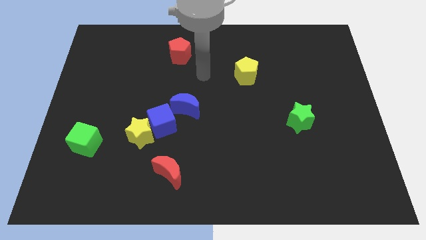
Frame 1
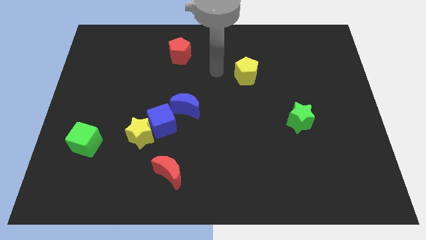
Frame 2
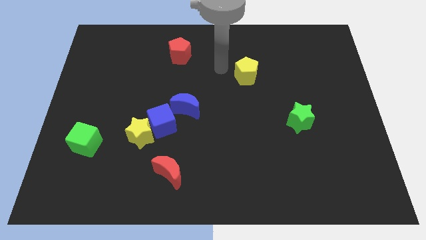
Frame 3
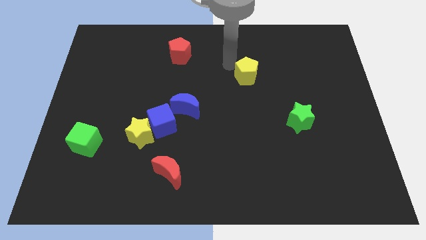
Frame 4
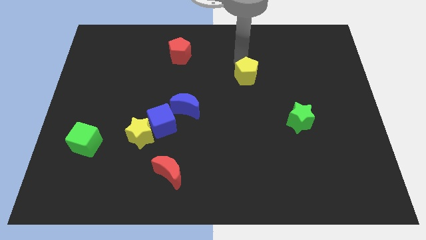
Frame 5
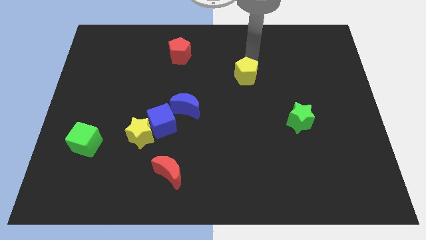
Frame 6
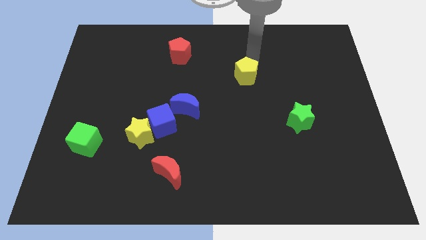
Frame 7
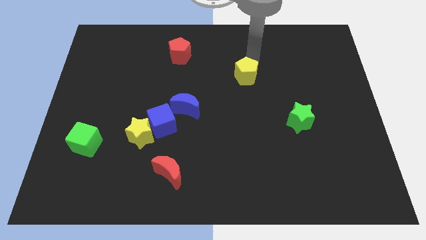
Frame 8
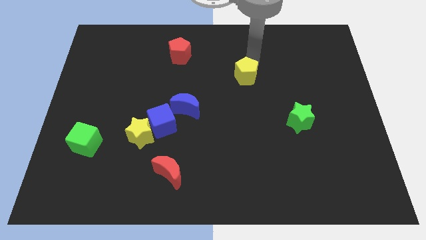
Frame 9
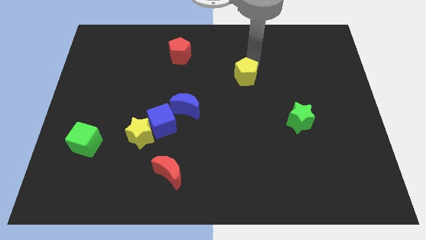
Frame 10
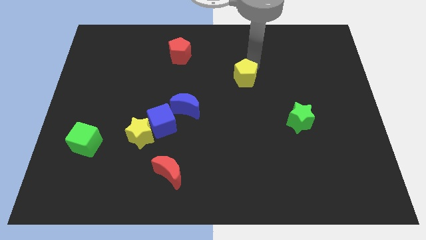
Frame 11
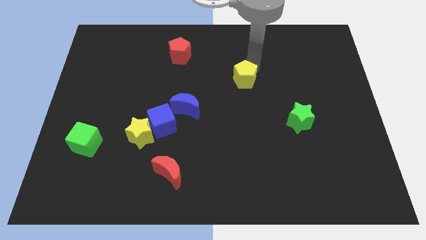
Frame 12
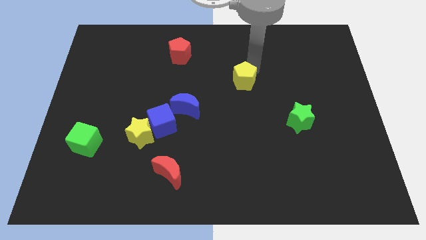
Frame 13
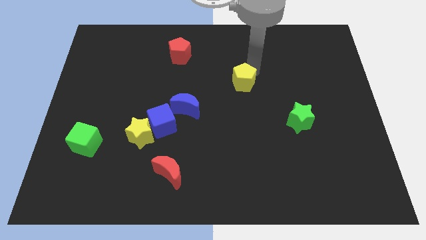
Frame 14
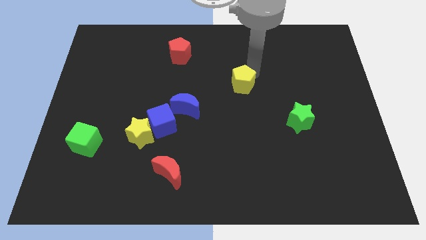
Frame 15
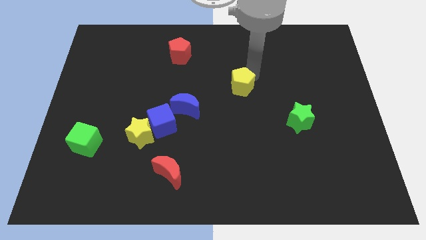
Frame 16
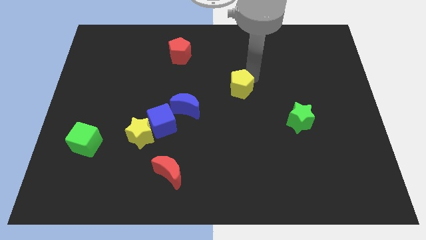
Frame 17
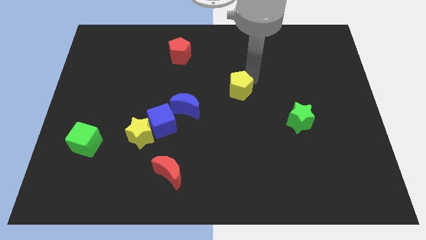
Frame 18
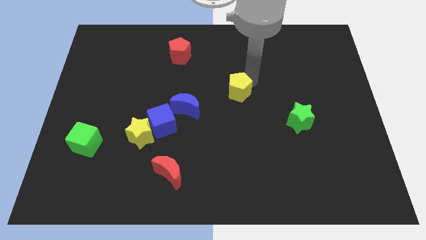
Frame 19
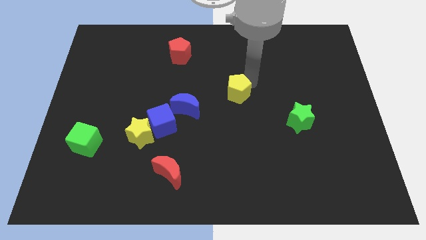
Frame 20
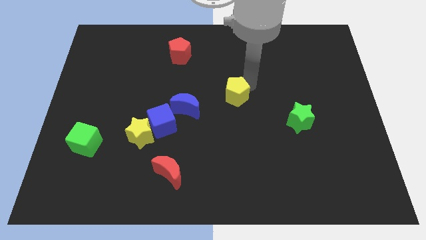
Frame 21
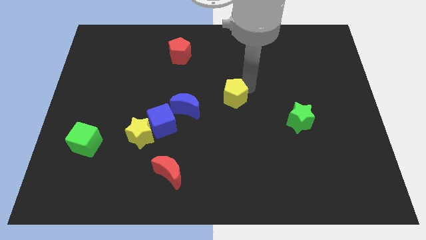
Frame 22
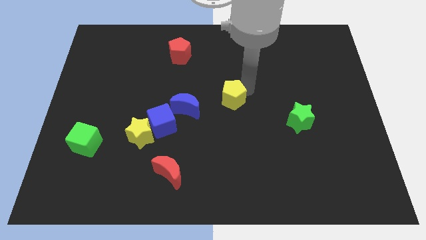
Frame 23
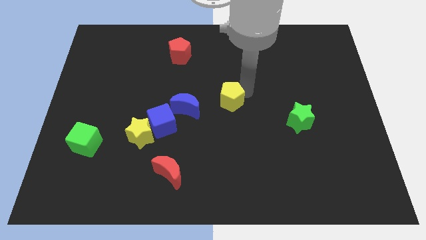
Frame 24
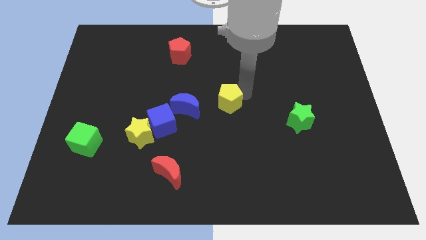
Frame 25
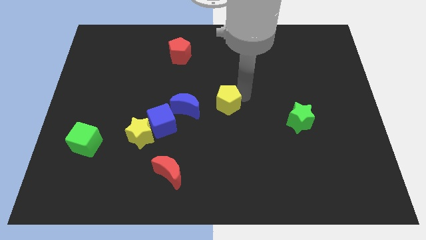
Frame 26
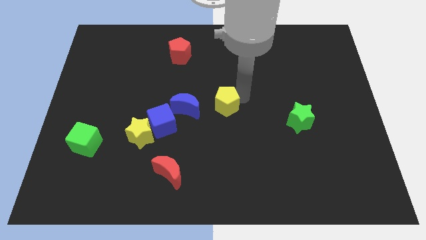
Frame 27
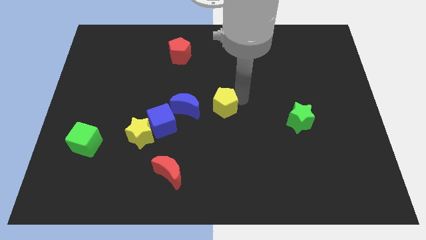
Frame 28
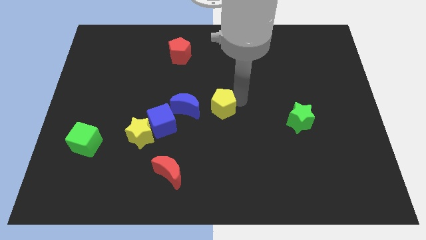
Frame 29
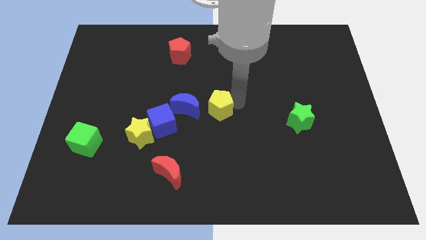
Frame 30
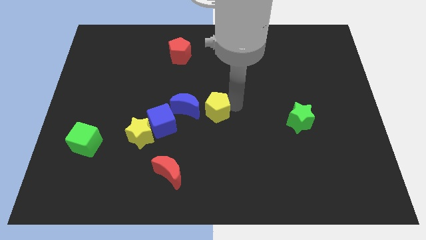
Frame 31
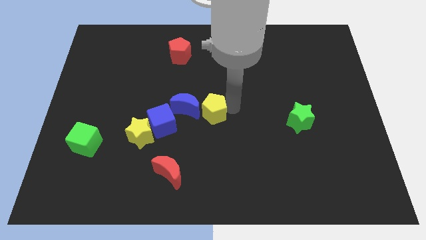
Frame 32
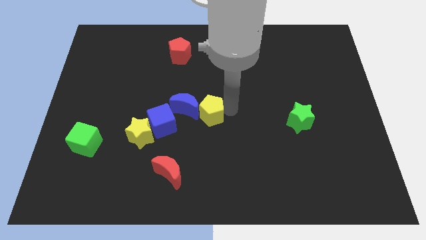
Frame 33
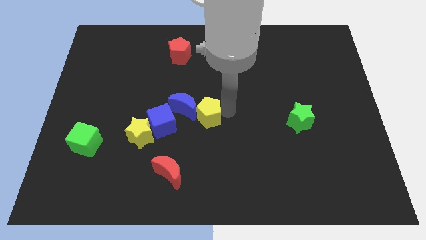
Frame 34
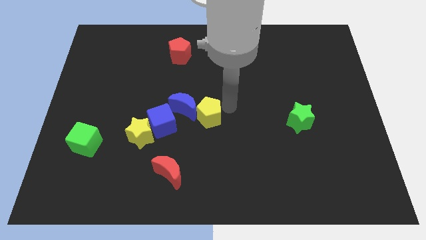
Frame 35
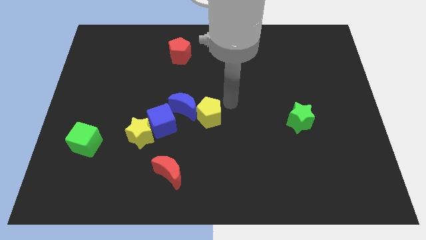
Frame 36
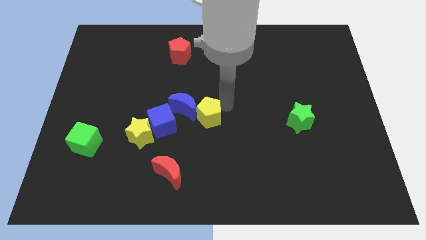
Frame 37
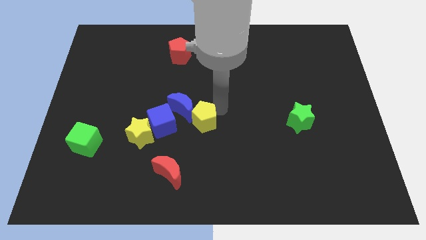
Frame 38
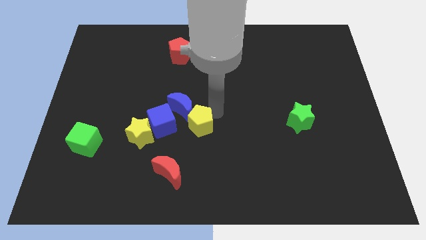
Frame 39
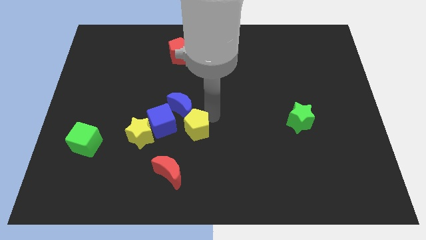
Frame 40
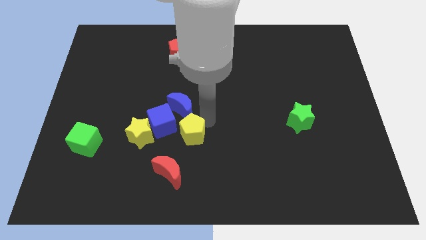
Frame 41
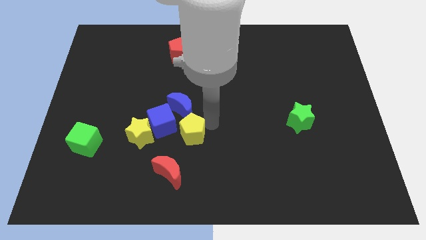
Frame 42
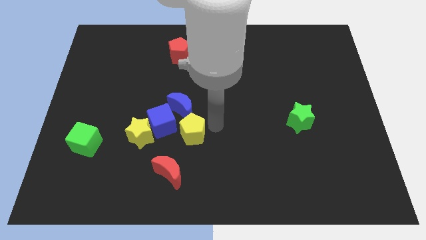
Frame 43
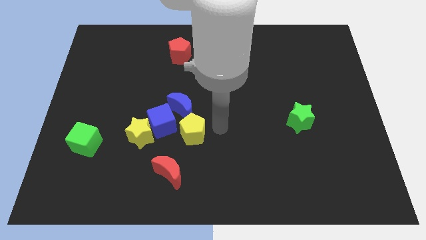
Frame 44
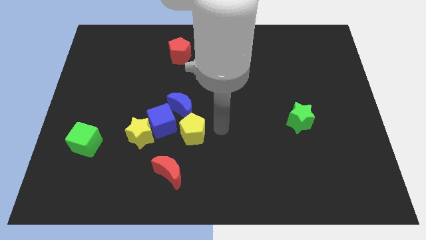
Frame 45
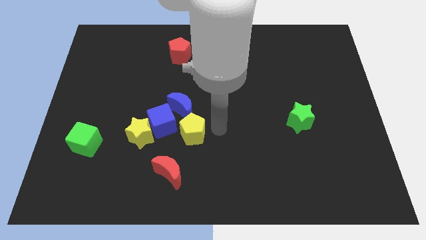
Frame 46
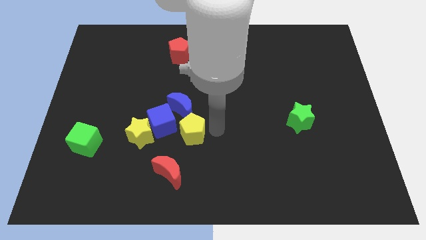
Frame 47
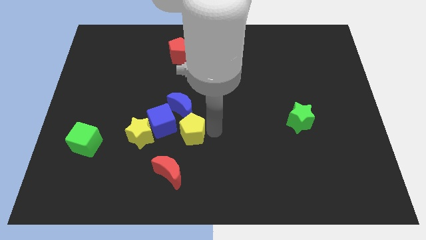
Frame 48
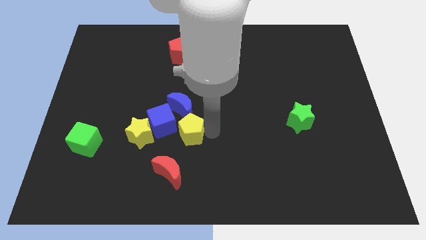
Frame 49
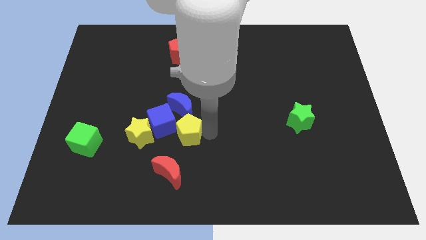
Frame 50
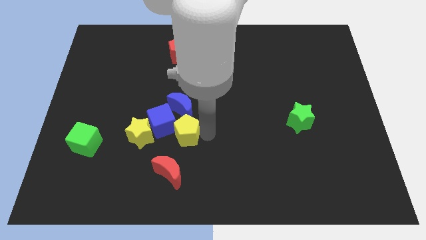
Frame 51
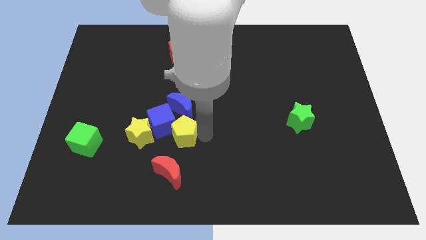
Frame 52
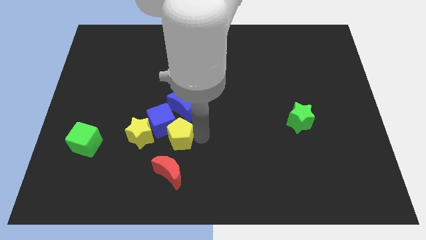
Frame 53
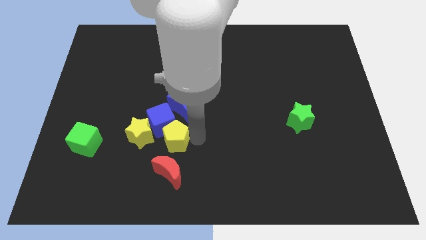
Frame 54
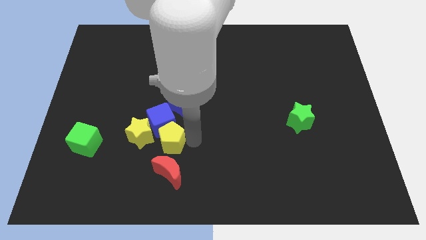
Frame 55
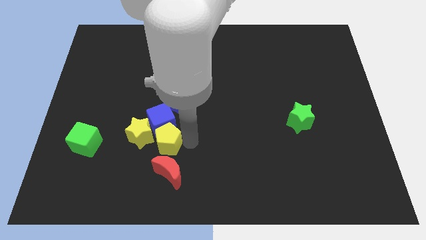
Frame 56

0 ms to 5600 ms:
slide the yellow pentagon to the yellow star

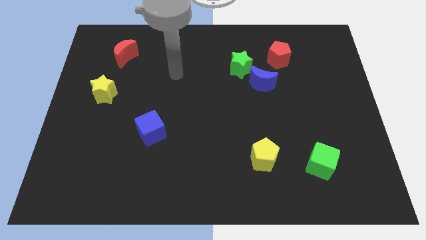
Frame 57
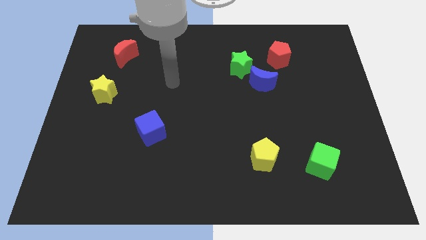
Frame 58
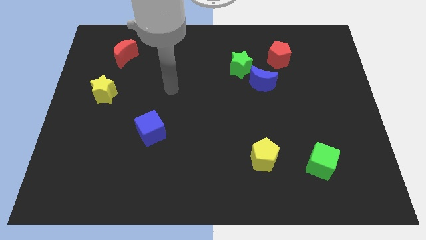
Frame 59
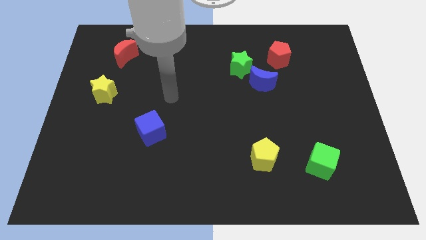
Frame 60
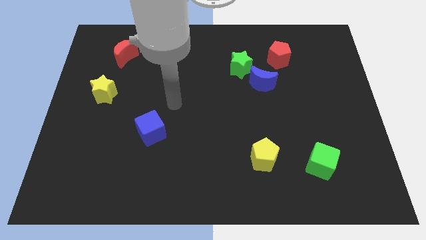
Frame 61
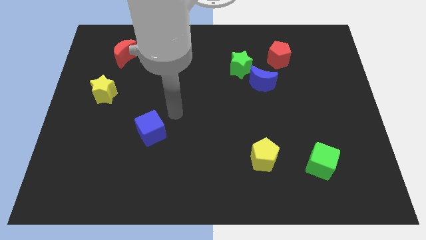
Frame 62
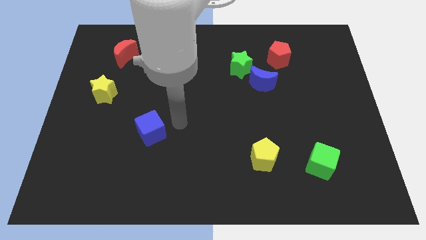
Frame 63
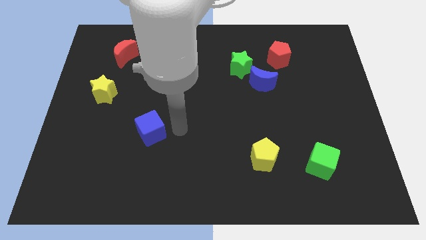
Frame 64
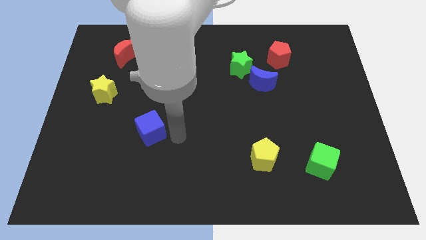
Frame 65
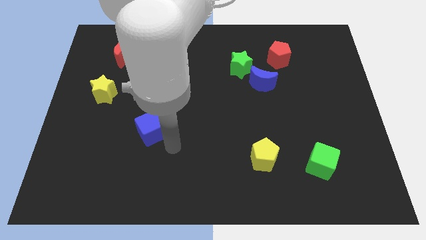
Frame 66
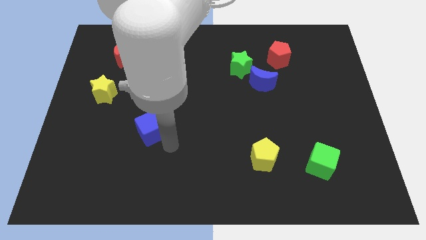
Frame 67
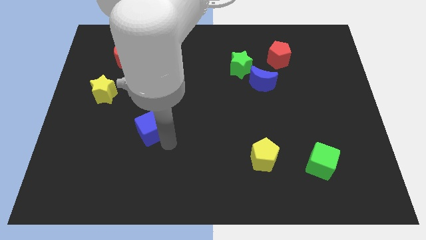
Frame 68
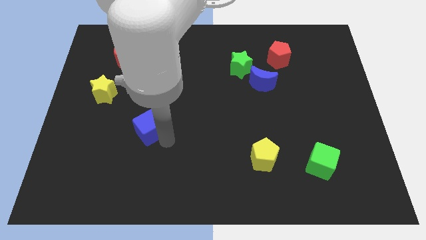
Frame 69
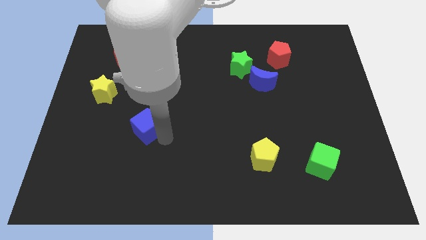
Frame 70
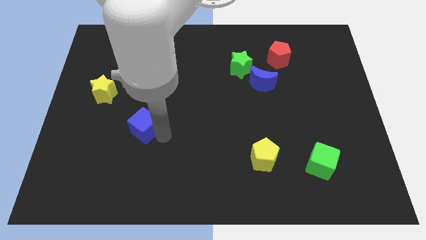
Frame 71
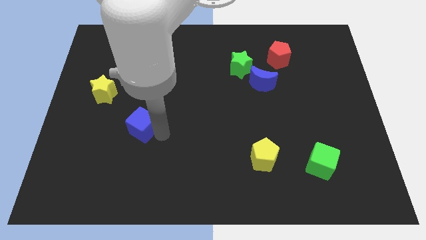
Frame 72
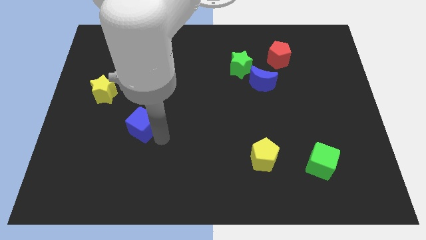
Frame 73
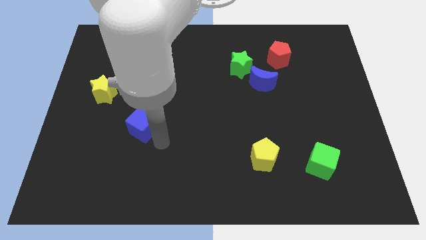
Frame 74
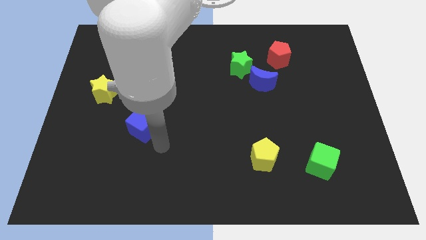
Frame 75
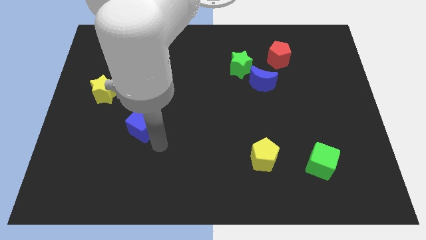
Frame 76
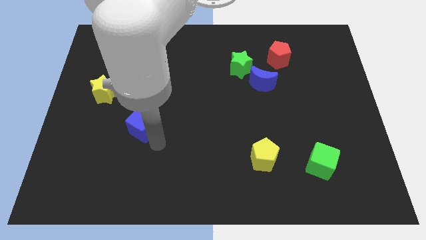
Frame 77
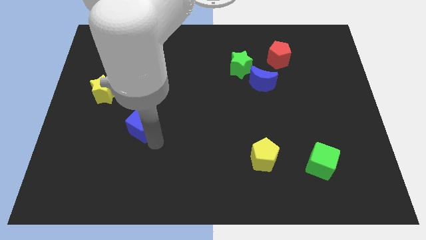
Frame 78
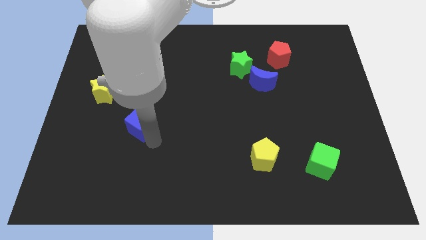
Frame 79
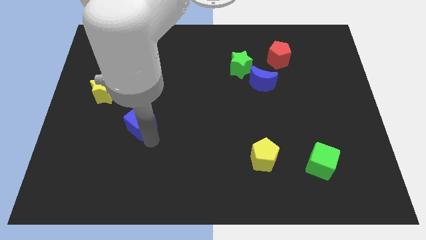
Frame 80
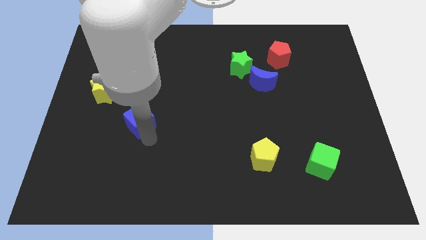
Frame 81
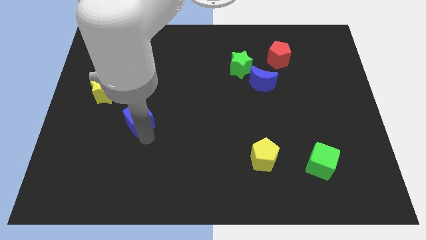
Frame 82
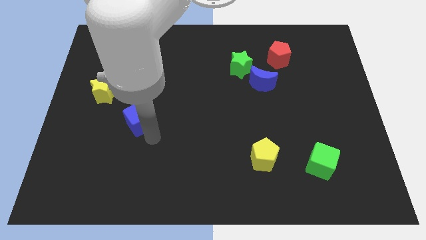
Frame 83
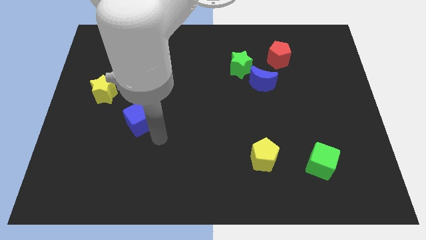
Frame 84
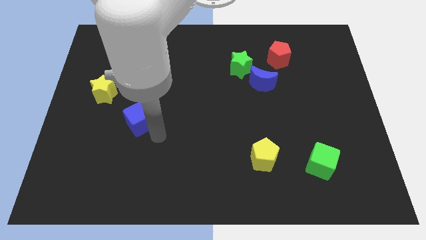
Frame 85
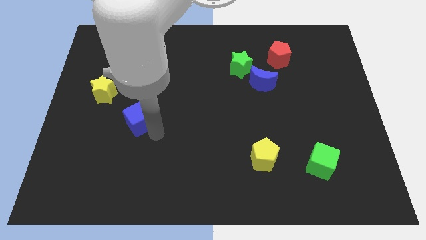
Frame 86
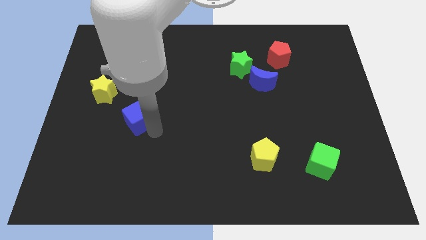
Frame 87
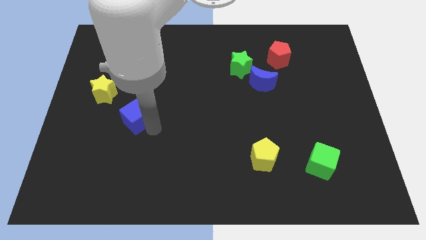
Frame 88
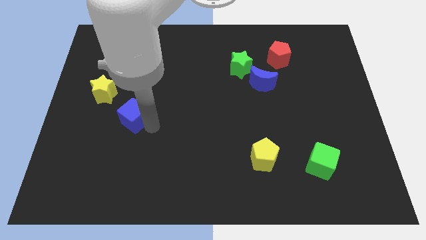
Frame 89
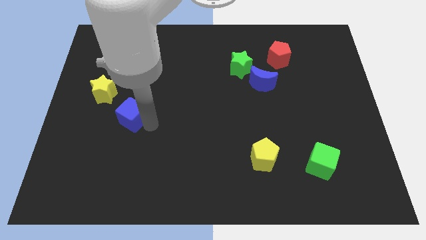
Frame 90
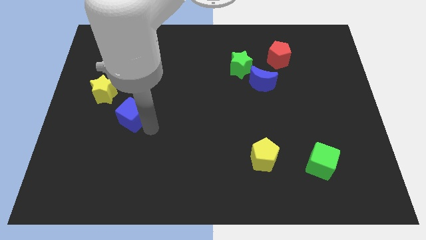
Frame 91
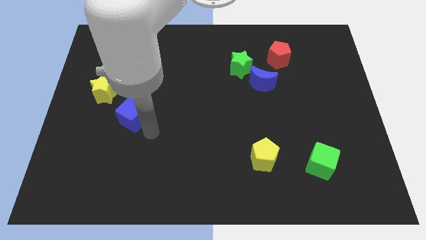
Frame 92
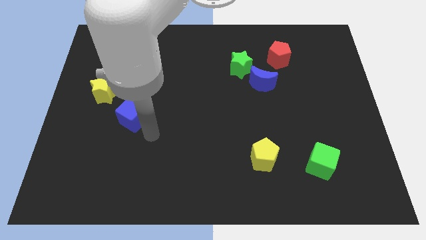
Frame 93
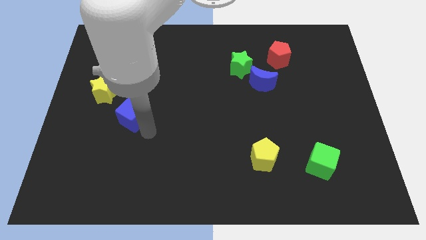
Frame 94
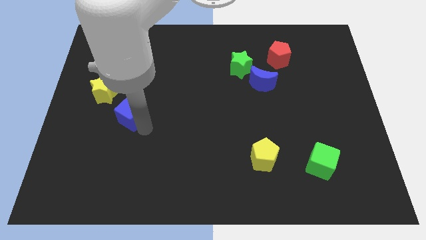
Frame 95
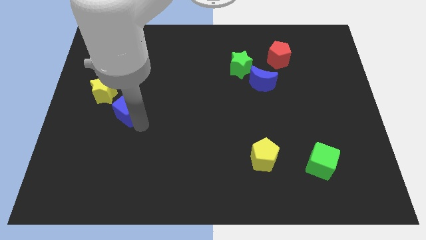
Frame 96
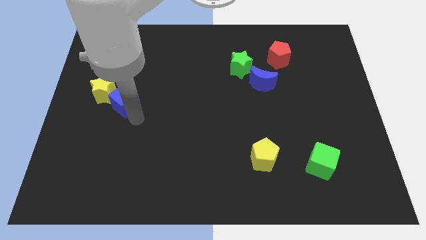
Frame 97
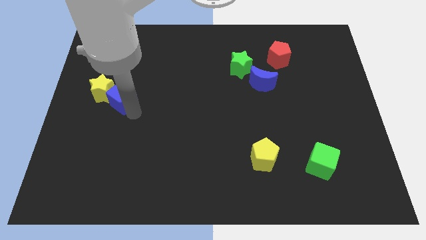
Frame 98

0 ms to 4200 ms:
move the blue cube next to the yellow star
